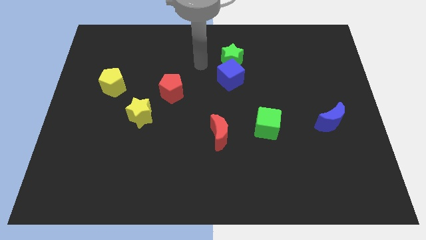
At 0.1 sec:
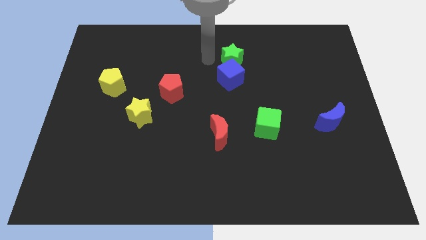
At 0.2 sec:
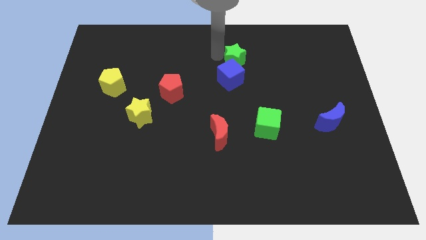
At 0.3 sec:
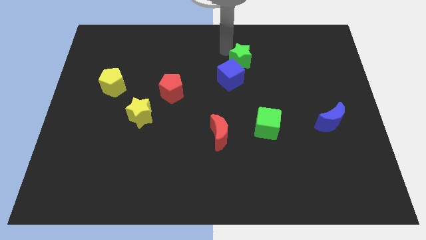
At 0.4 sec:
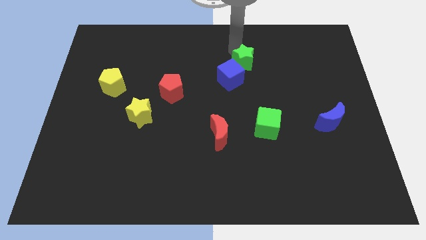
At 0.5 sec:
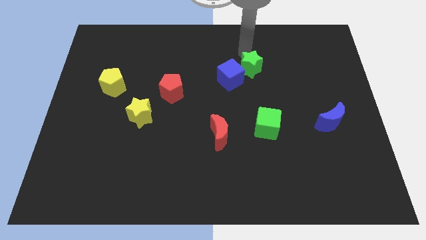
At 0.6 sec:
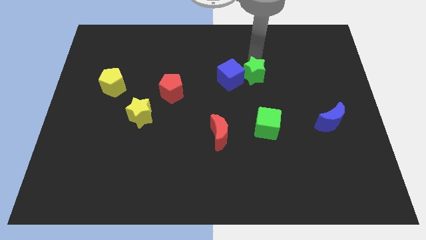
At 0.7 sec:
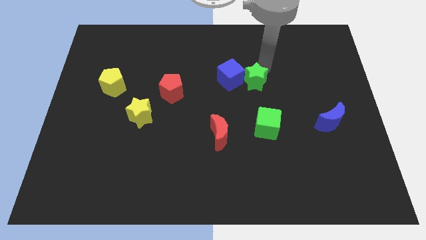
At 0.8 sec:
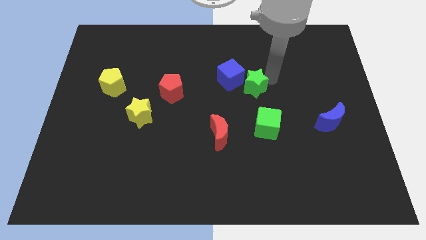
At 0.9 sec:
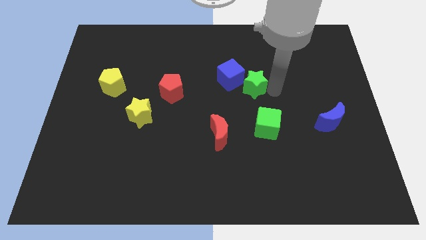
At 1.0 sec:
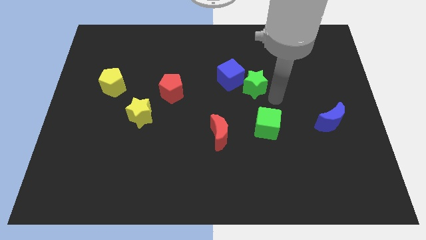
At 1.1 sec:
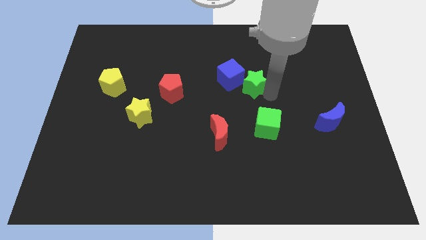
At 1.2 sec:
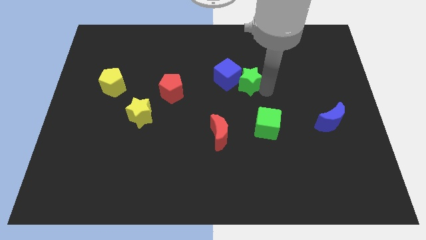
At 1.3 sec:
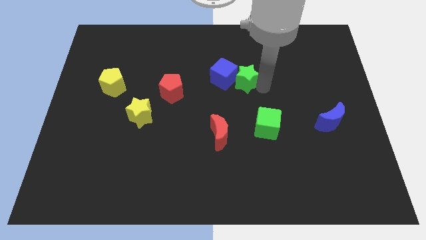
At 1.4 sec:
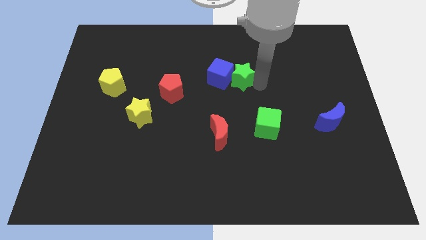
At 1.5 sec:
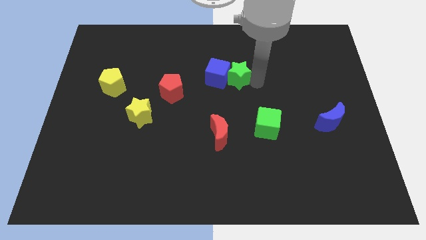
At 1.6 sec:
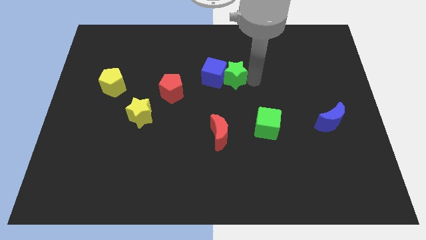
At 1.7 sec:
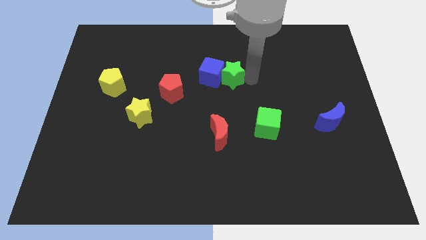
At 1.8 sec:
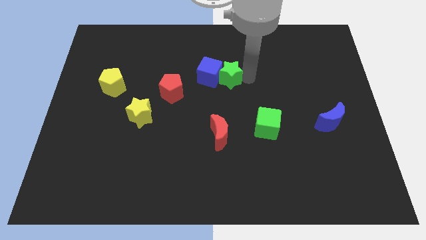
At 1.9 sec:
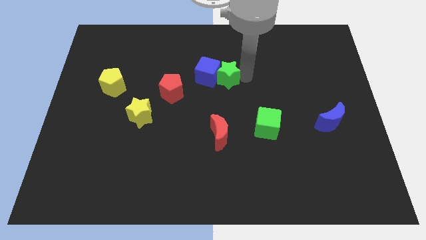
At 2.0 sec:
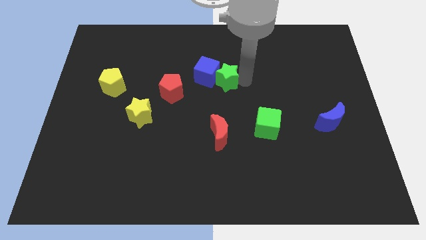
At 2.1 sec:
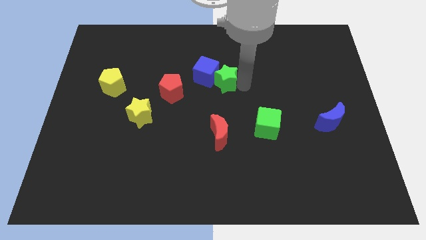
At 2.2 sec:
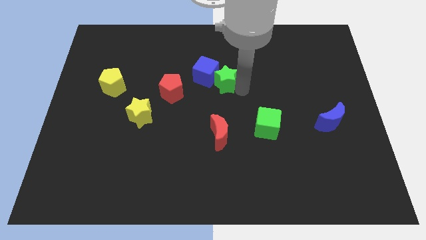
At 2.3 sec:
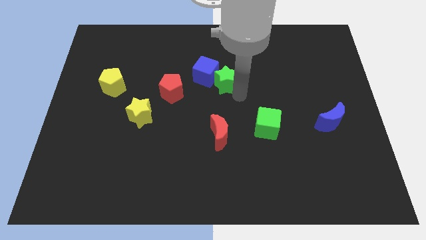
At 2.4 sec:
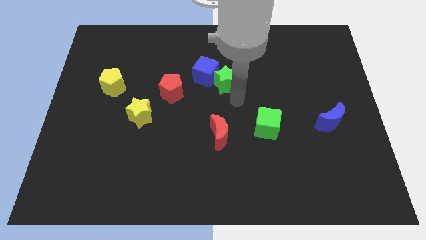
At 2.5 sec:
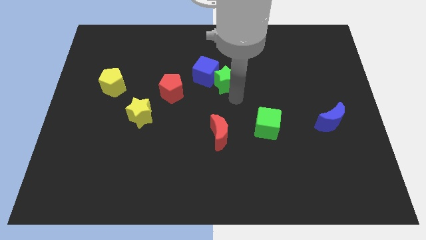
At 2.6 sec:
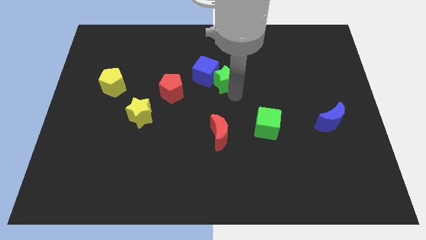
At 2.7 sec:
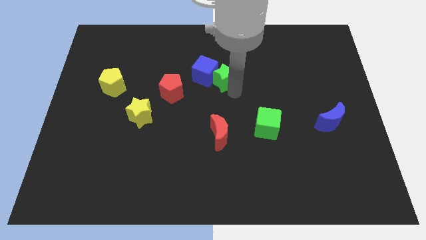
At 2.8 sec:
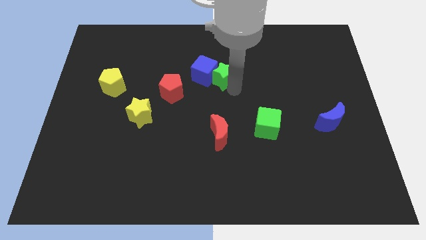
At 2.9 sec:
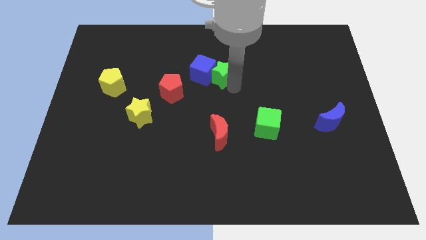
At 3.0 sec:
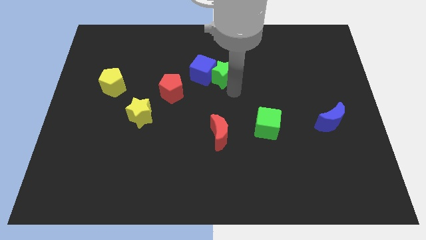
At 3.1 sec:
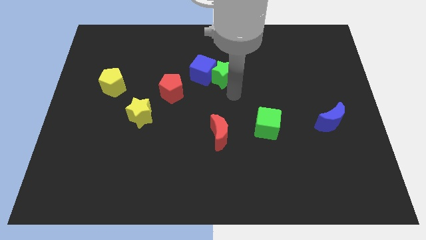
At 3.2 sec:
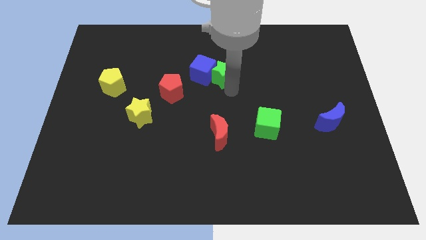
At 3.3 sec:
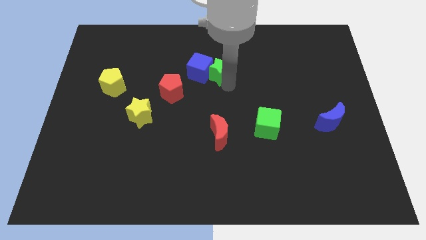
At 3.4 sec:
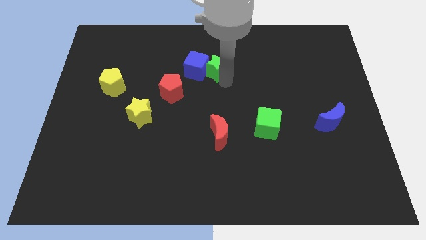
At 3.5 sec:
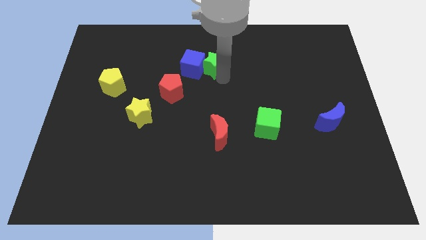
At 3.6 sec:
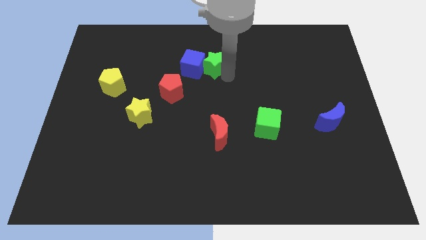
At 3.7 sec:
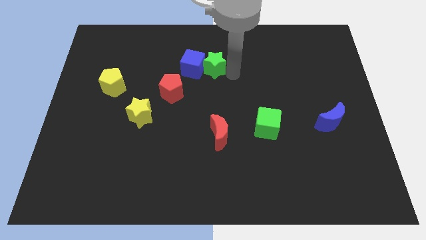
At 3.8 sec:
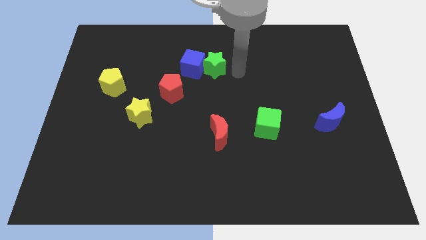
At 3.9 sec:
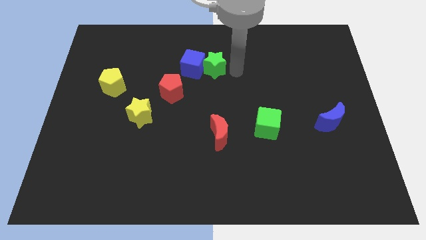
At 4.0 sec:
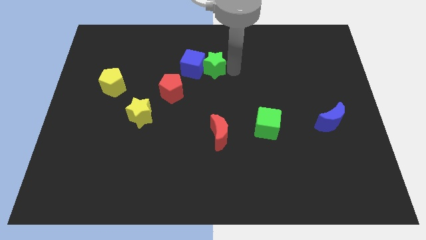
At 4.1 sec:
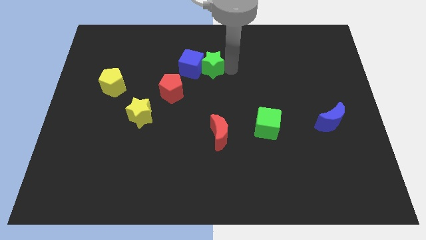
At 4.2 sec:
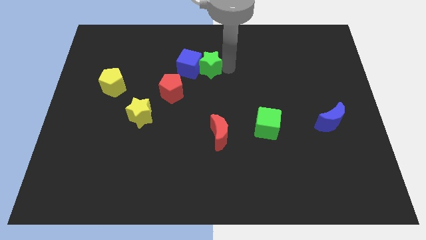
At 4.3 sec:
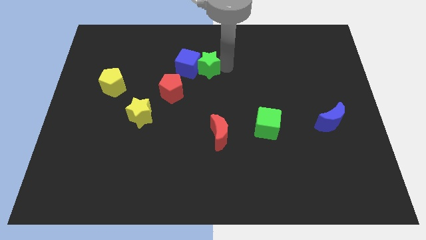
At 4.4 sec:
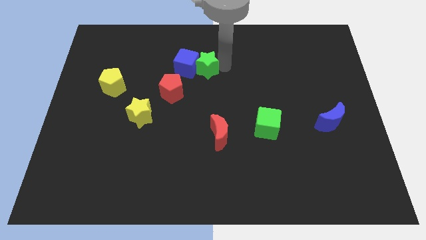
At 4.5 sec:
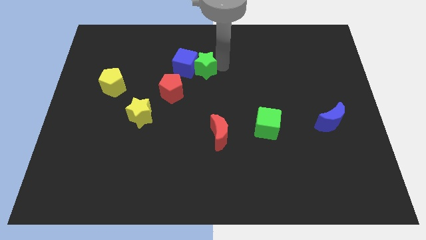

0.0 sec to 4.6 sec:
slide the green star somewhat left

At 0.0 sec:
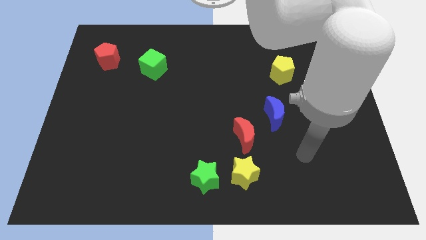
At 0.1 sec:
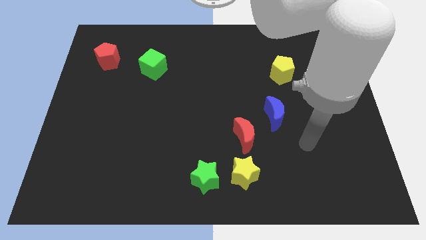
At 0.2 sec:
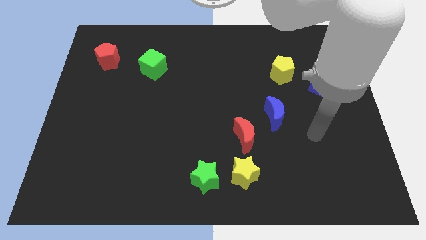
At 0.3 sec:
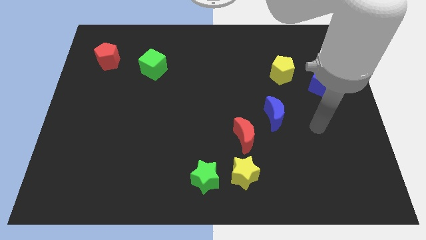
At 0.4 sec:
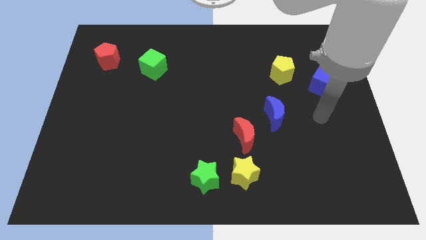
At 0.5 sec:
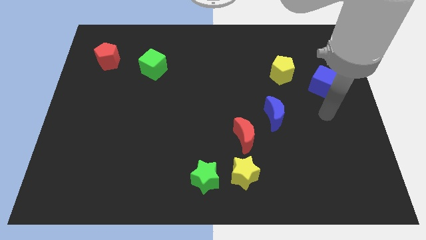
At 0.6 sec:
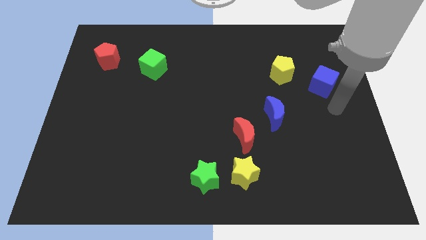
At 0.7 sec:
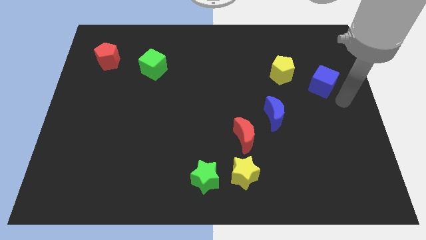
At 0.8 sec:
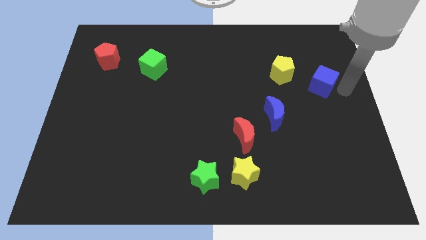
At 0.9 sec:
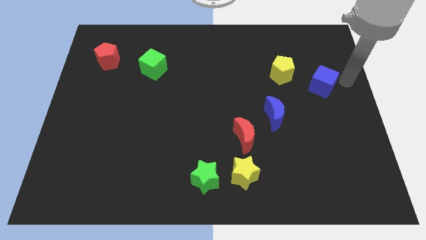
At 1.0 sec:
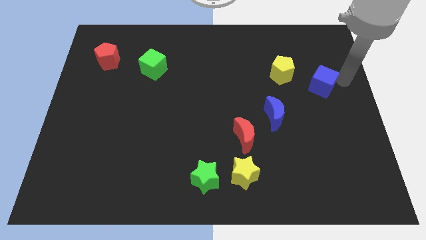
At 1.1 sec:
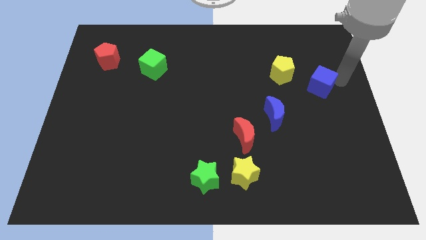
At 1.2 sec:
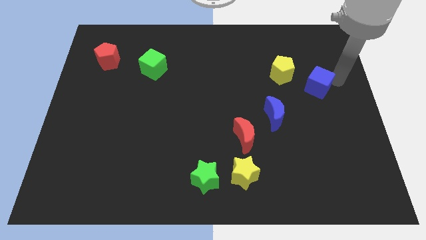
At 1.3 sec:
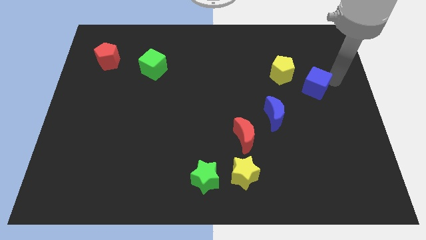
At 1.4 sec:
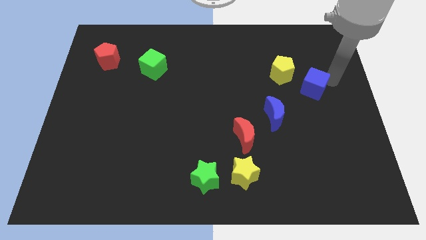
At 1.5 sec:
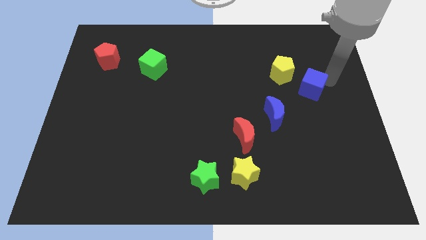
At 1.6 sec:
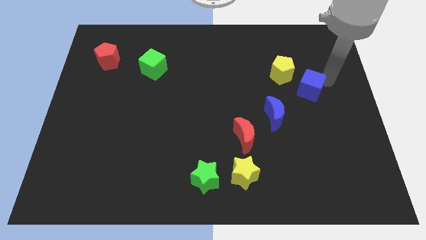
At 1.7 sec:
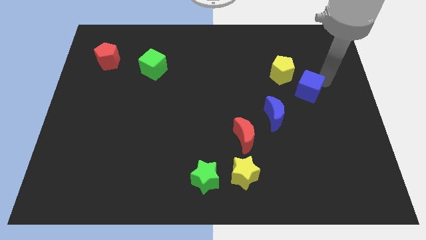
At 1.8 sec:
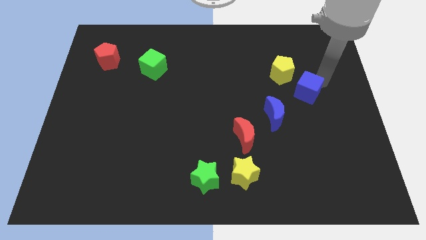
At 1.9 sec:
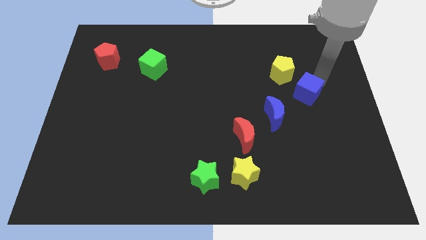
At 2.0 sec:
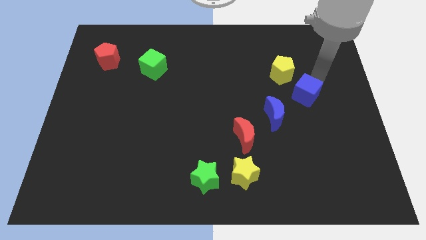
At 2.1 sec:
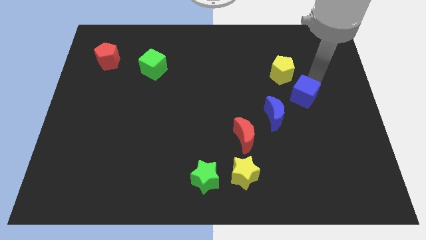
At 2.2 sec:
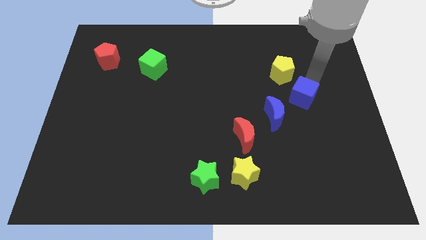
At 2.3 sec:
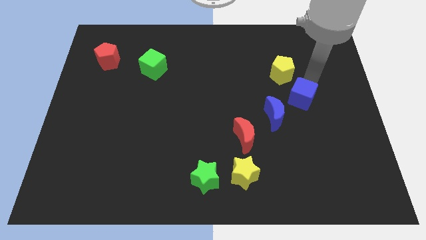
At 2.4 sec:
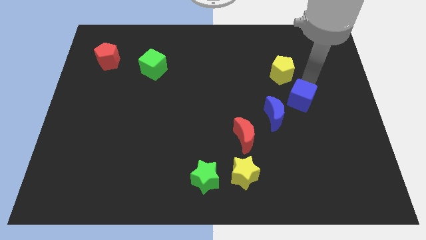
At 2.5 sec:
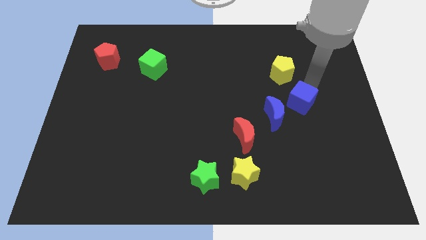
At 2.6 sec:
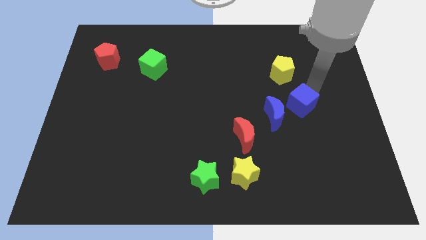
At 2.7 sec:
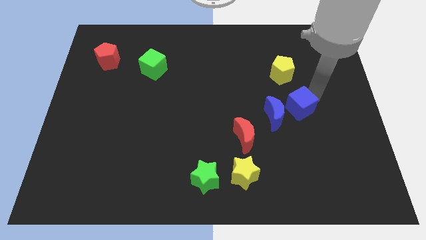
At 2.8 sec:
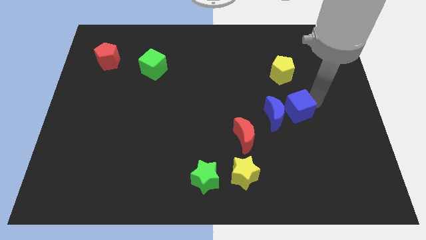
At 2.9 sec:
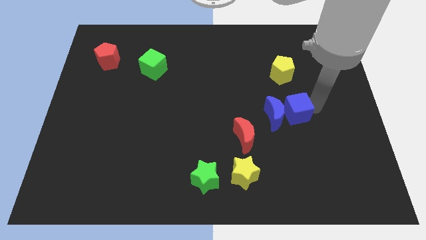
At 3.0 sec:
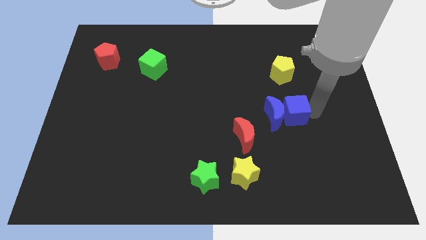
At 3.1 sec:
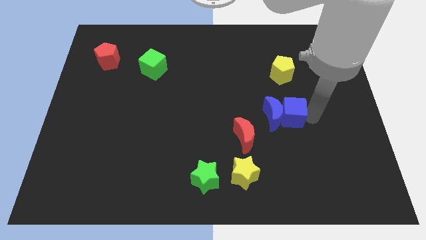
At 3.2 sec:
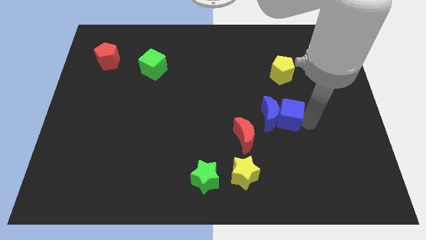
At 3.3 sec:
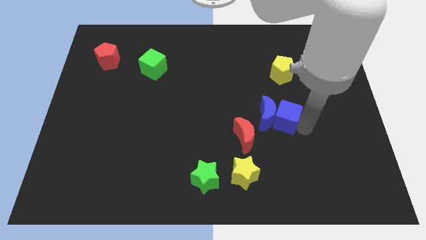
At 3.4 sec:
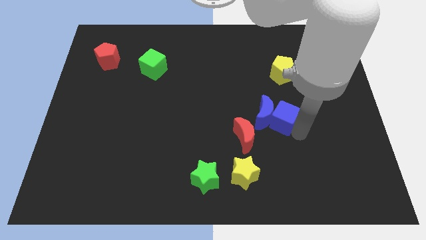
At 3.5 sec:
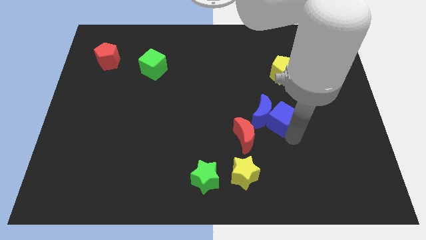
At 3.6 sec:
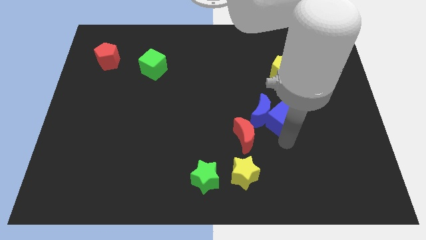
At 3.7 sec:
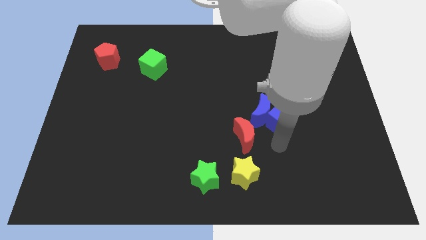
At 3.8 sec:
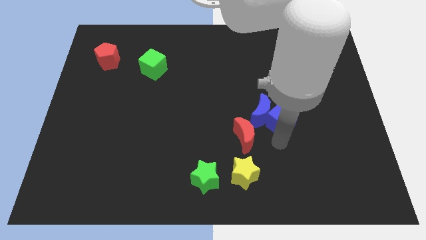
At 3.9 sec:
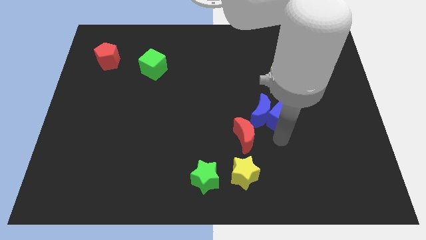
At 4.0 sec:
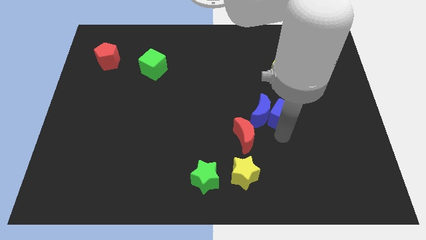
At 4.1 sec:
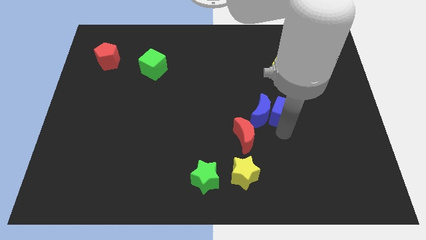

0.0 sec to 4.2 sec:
move the blue cube left a bit
